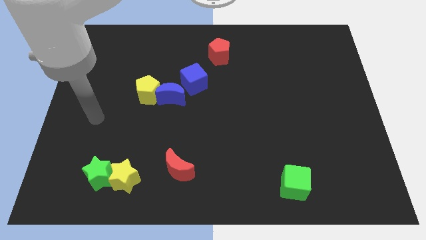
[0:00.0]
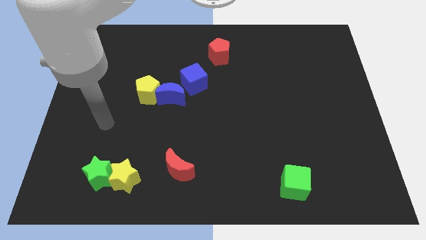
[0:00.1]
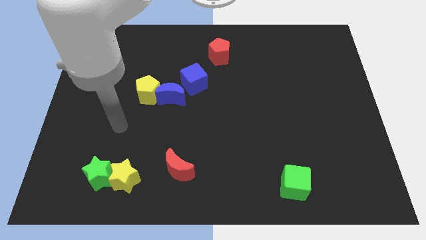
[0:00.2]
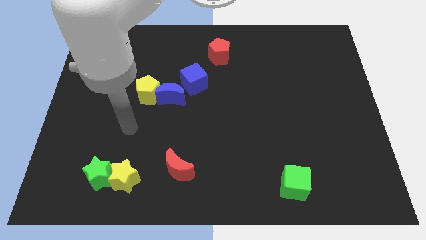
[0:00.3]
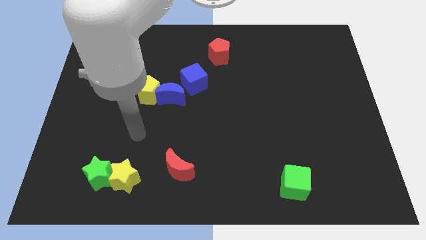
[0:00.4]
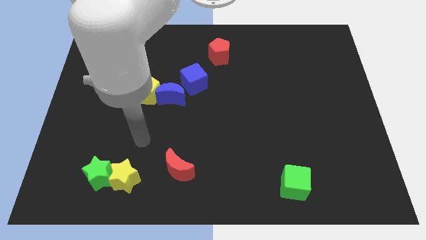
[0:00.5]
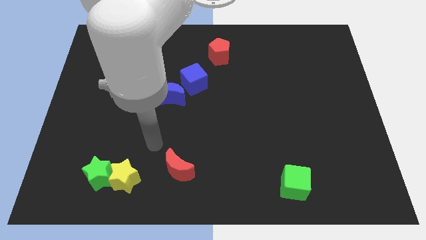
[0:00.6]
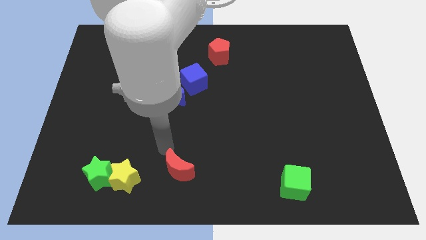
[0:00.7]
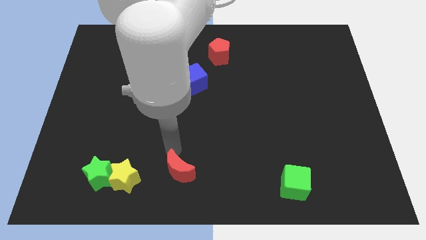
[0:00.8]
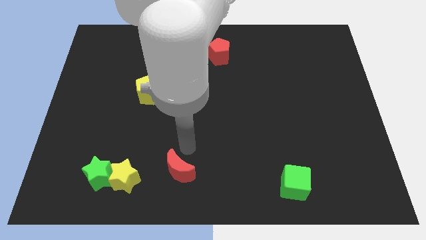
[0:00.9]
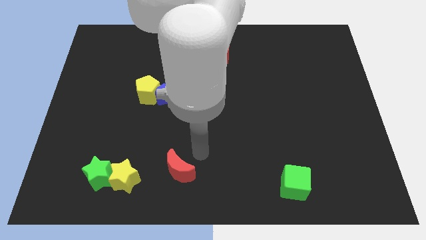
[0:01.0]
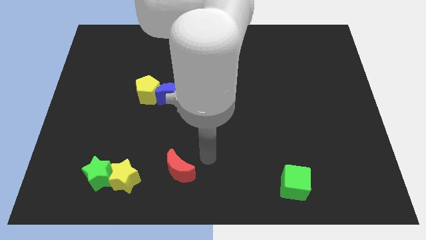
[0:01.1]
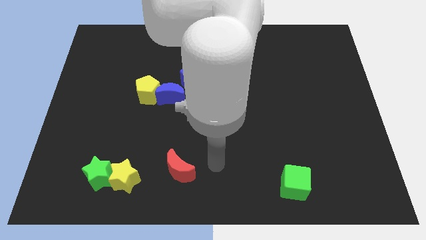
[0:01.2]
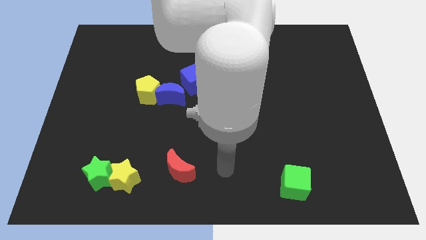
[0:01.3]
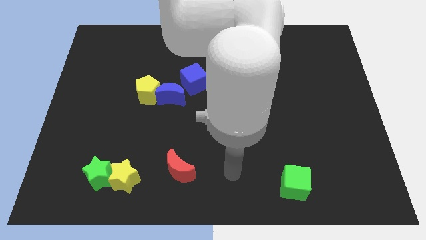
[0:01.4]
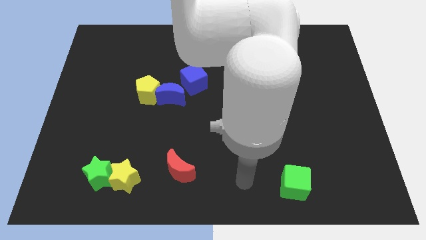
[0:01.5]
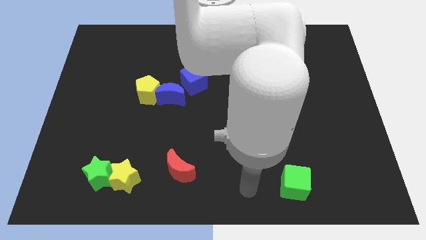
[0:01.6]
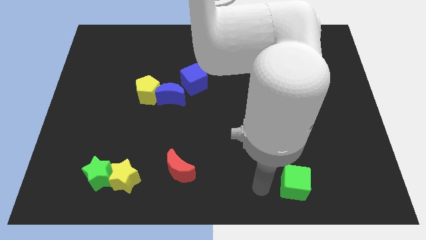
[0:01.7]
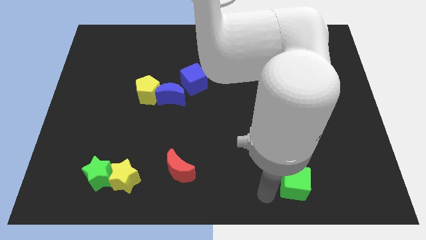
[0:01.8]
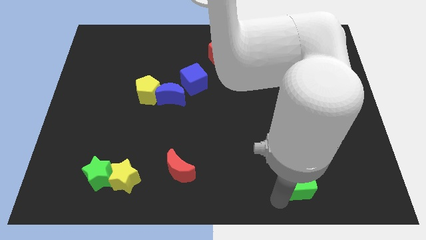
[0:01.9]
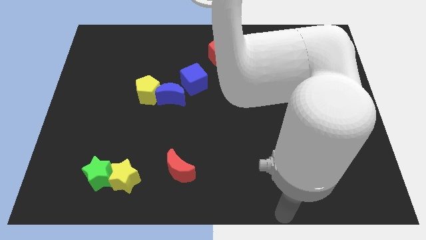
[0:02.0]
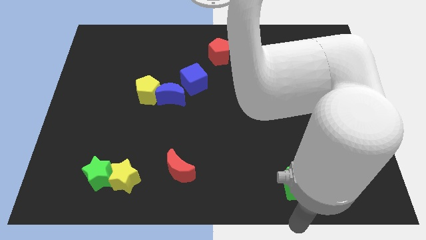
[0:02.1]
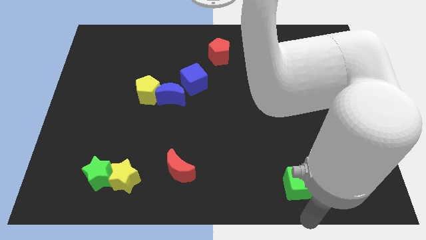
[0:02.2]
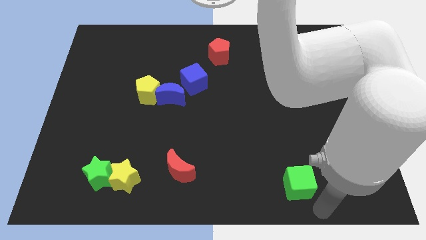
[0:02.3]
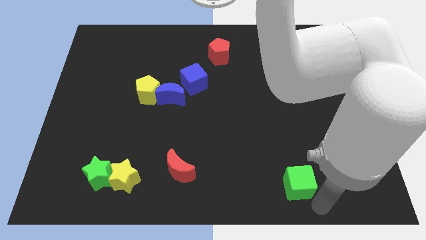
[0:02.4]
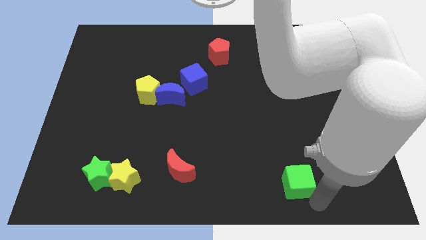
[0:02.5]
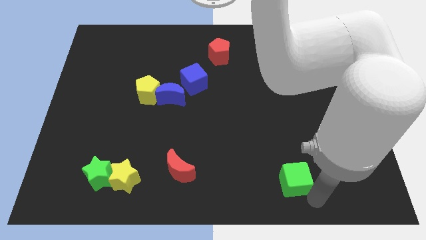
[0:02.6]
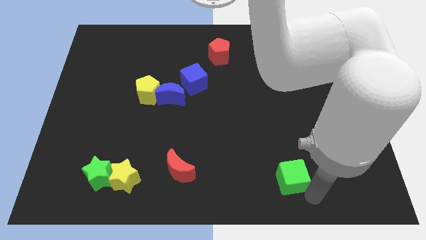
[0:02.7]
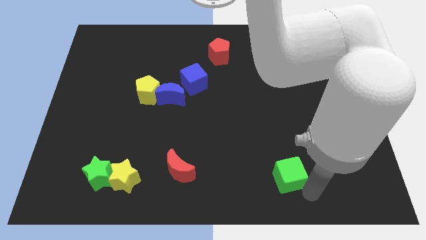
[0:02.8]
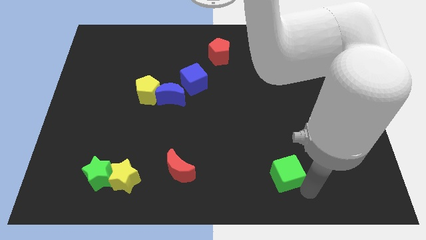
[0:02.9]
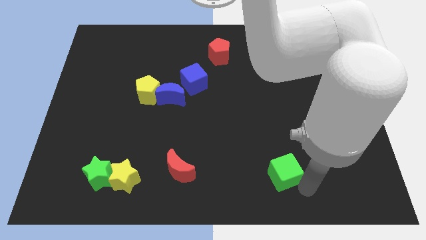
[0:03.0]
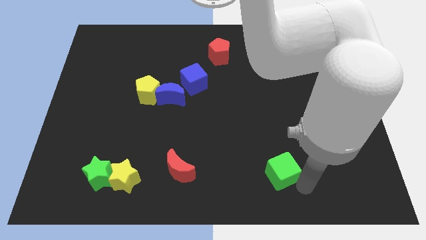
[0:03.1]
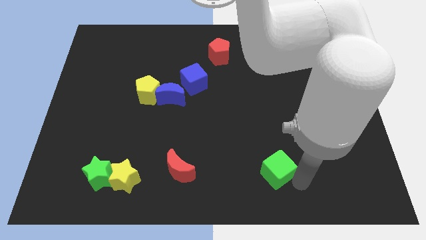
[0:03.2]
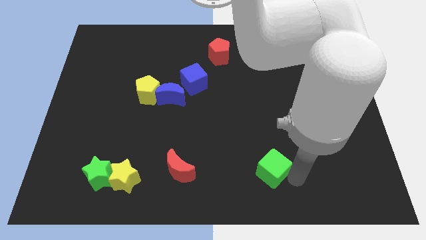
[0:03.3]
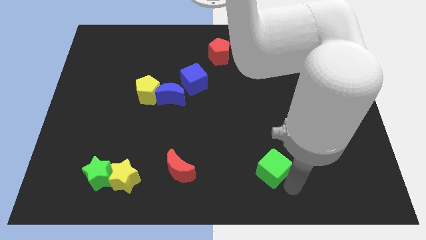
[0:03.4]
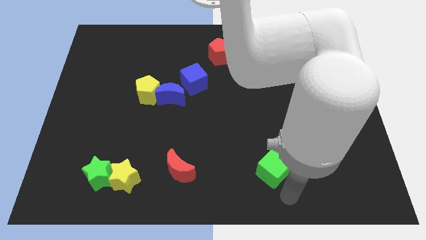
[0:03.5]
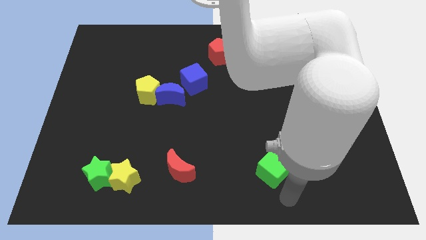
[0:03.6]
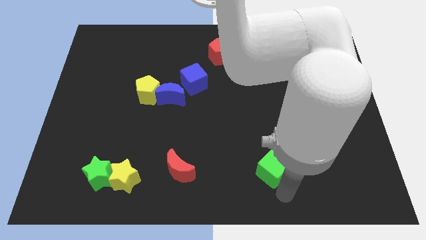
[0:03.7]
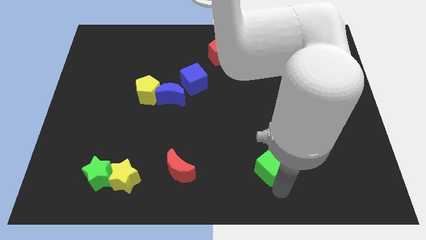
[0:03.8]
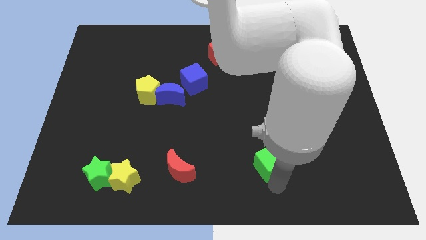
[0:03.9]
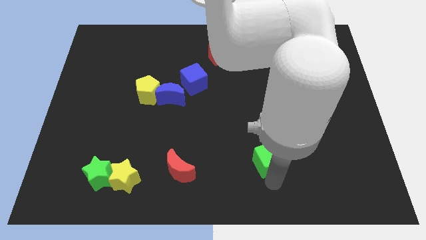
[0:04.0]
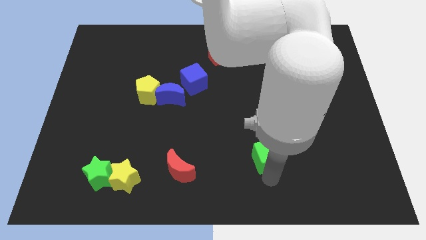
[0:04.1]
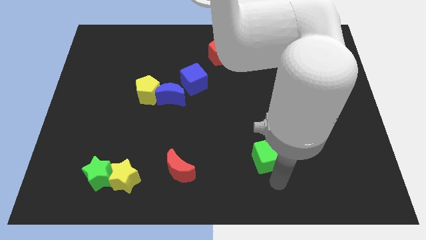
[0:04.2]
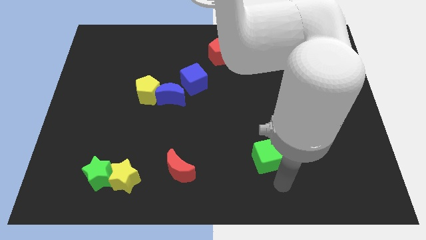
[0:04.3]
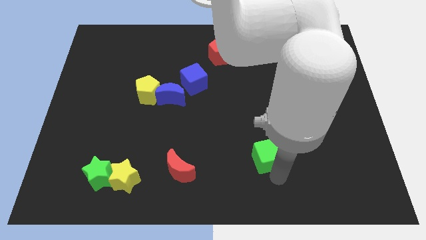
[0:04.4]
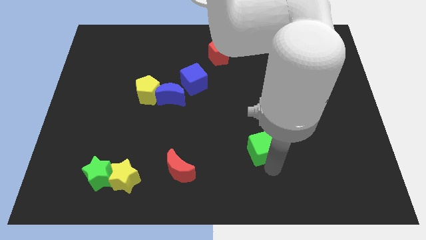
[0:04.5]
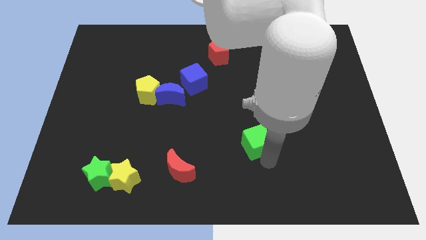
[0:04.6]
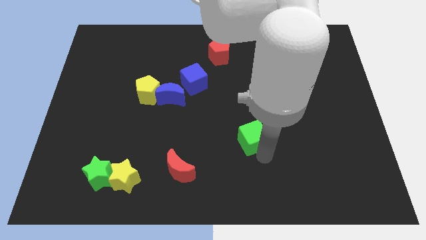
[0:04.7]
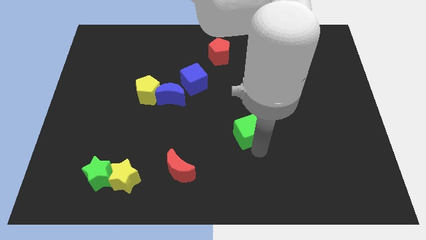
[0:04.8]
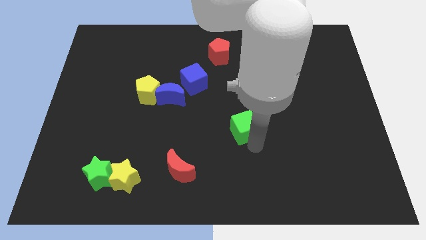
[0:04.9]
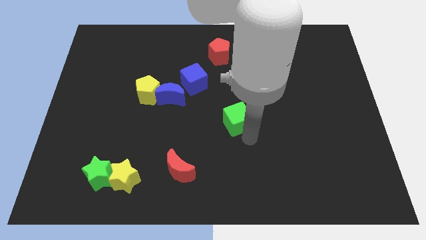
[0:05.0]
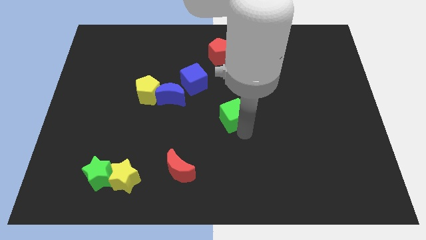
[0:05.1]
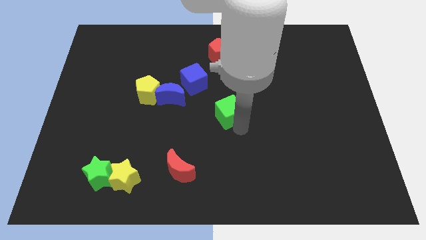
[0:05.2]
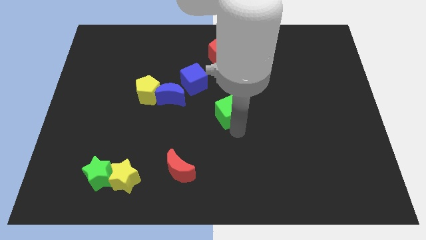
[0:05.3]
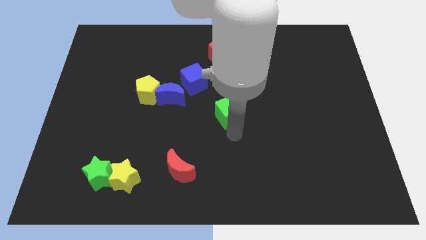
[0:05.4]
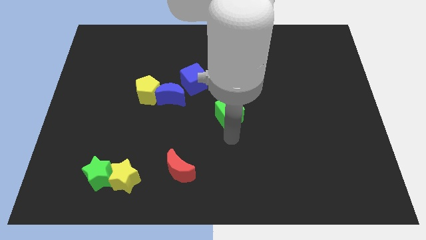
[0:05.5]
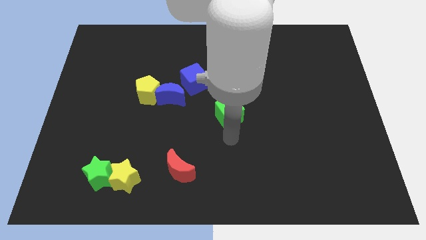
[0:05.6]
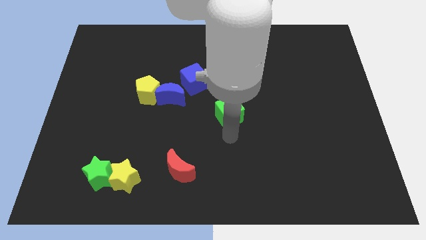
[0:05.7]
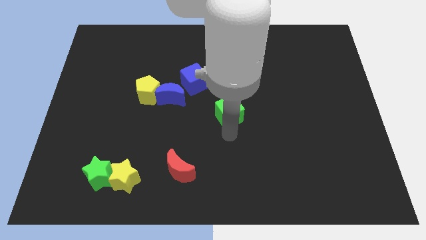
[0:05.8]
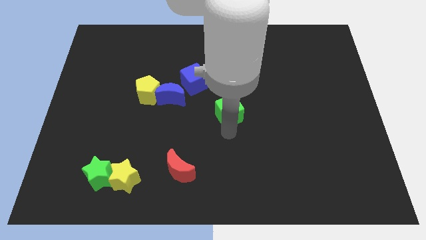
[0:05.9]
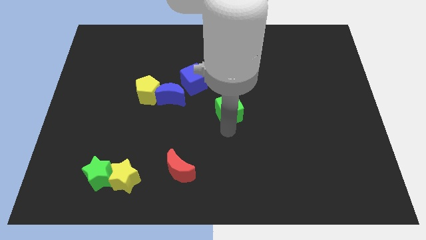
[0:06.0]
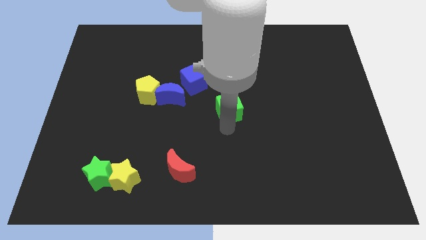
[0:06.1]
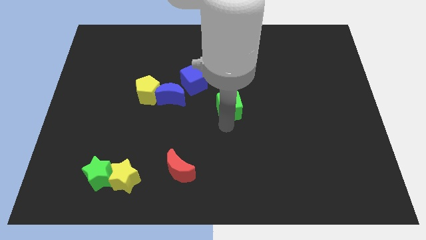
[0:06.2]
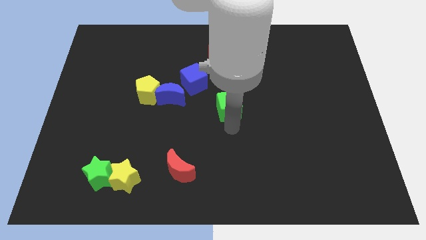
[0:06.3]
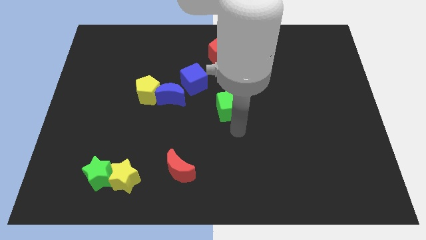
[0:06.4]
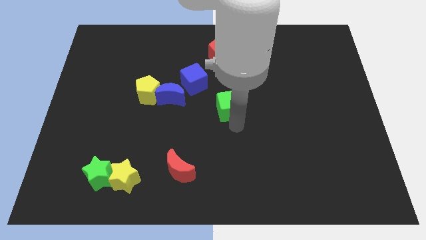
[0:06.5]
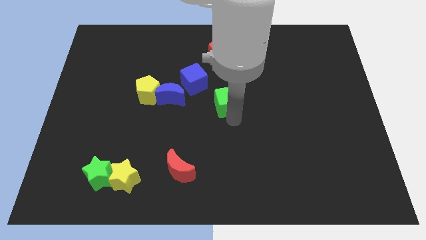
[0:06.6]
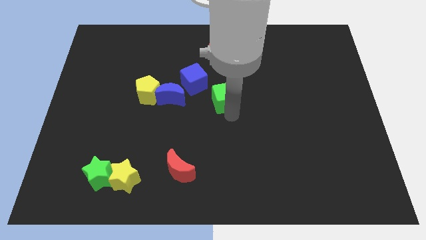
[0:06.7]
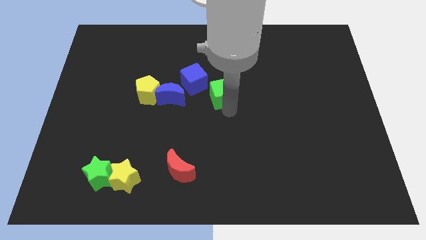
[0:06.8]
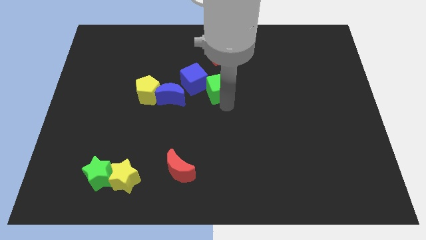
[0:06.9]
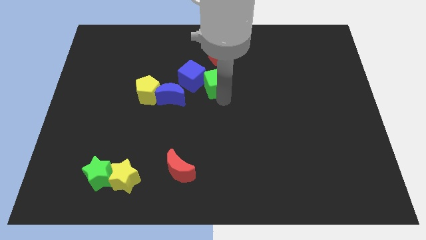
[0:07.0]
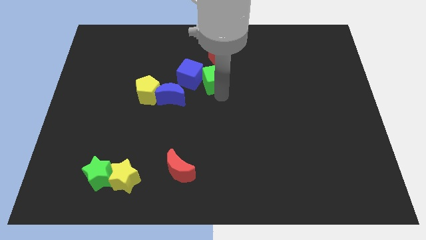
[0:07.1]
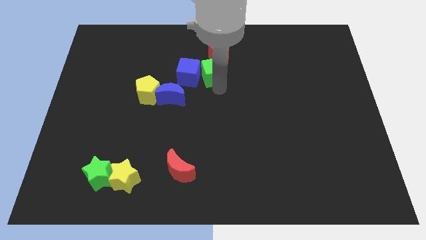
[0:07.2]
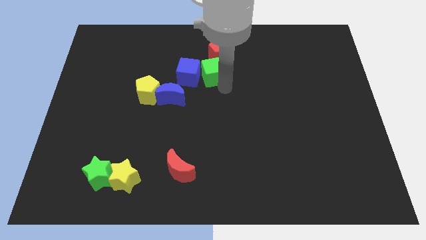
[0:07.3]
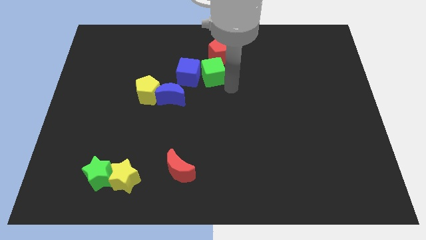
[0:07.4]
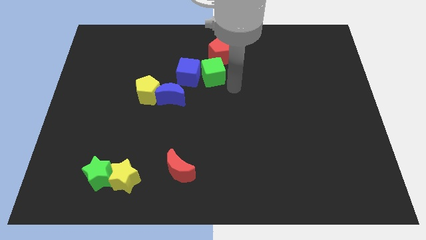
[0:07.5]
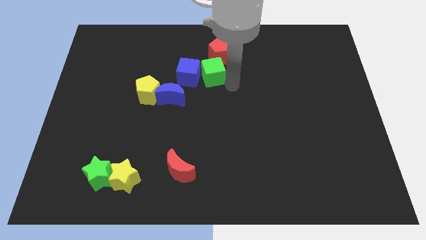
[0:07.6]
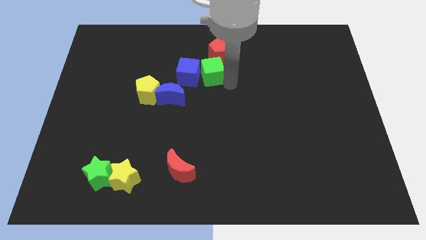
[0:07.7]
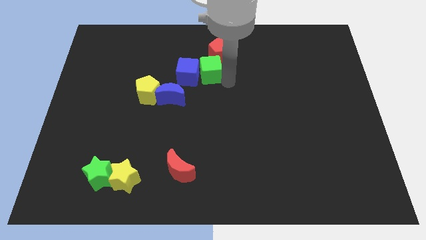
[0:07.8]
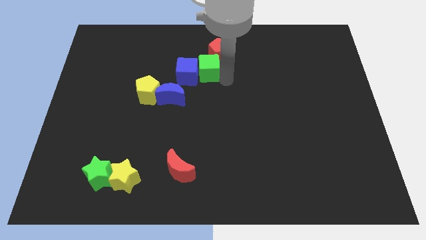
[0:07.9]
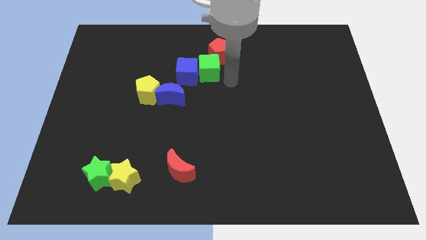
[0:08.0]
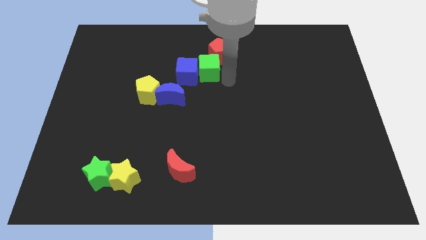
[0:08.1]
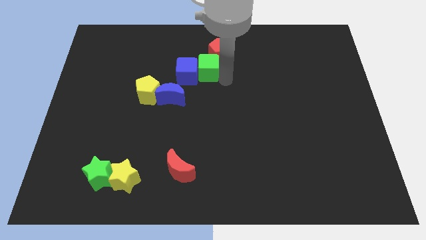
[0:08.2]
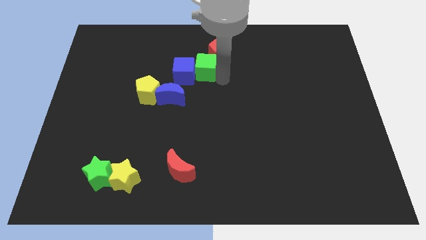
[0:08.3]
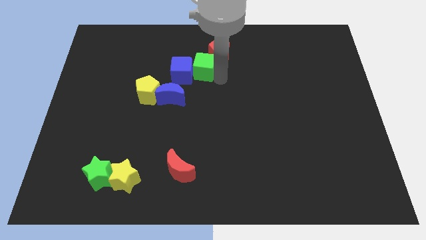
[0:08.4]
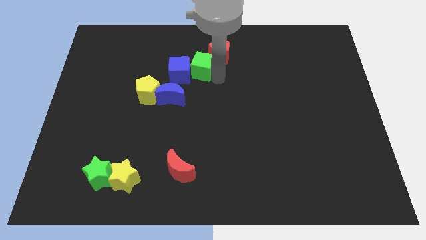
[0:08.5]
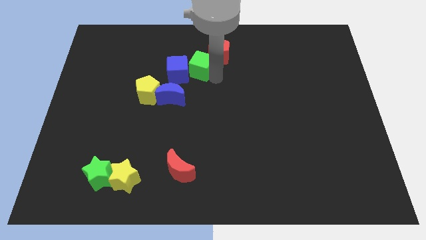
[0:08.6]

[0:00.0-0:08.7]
push the green cube left of the red pentagon
